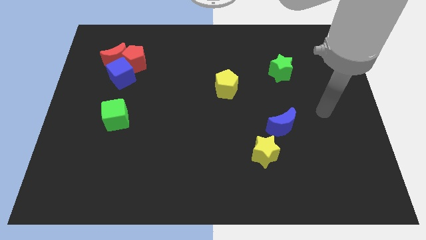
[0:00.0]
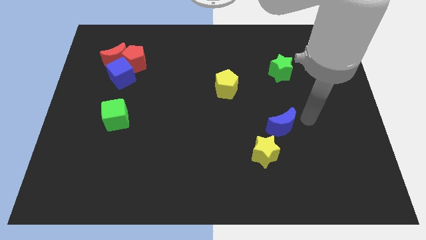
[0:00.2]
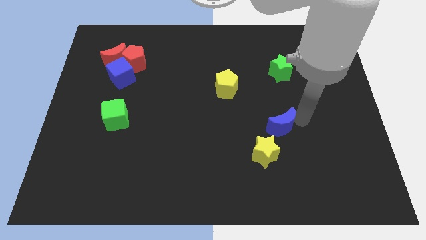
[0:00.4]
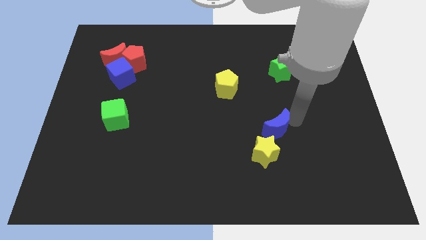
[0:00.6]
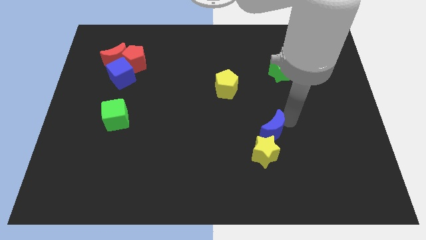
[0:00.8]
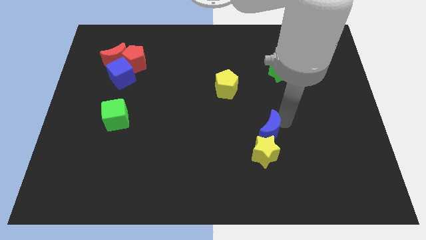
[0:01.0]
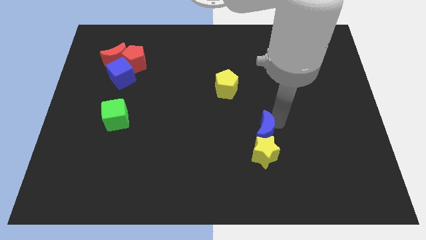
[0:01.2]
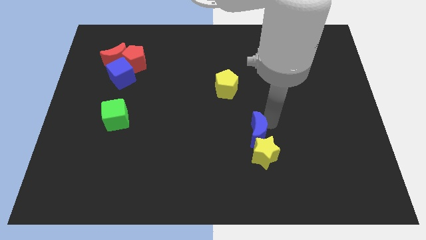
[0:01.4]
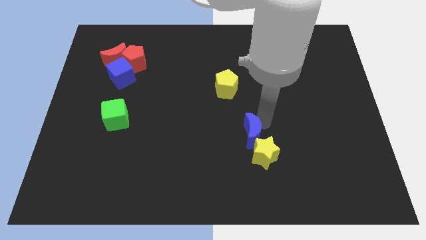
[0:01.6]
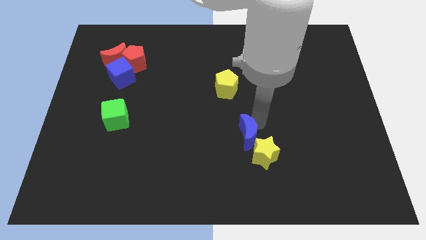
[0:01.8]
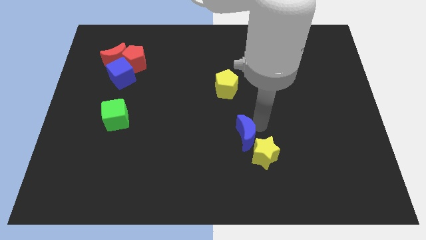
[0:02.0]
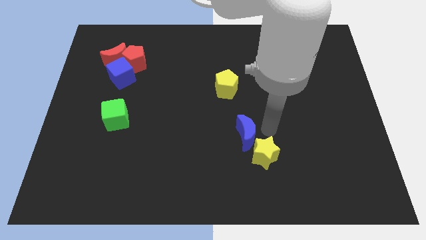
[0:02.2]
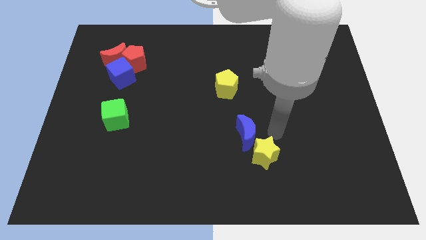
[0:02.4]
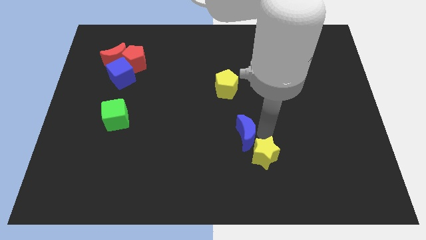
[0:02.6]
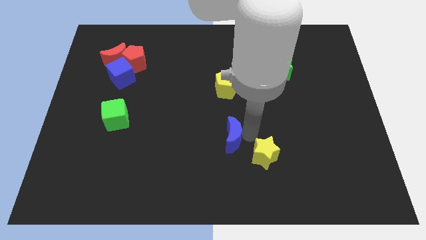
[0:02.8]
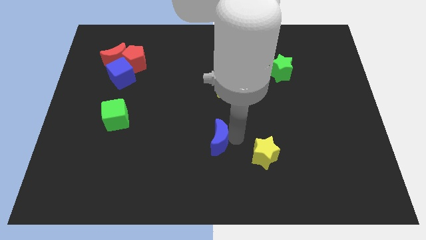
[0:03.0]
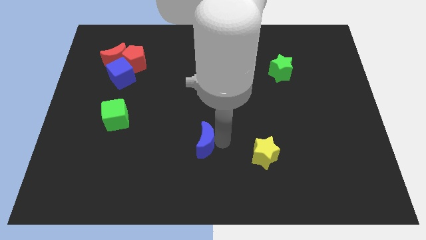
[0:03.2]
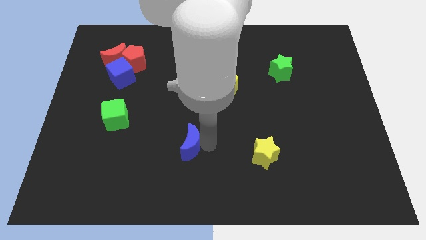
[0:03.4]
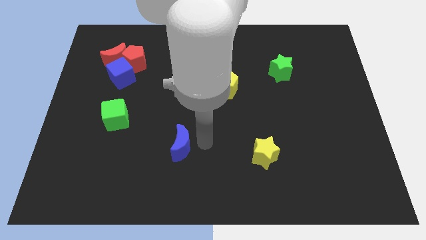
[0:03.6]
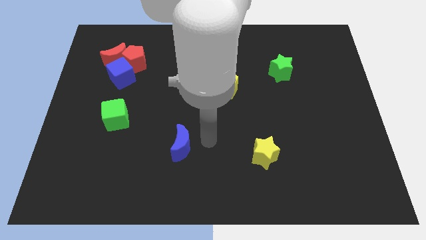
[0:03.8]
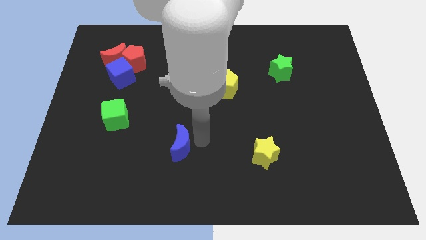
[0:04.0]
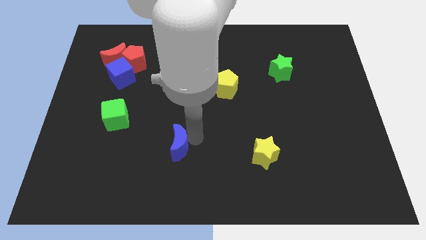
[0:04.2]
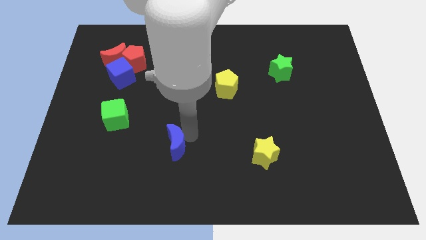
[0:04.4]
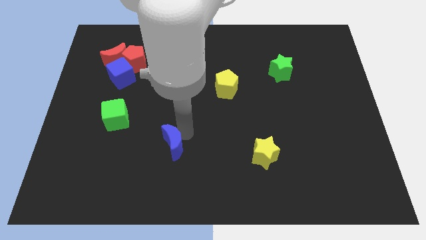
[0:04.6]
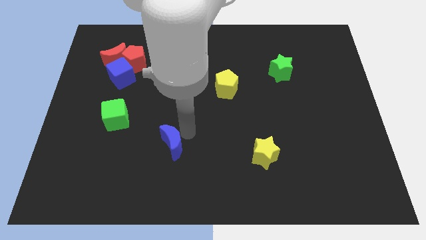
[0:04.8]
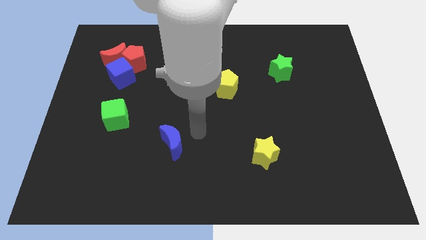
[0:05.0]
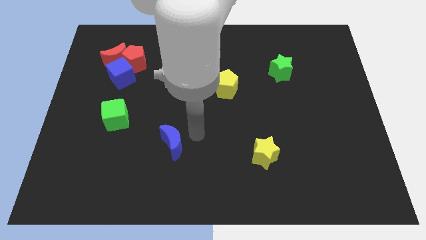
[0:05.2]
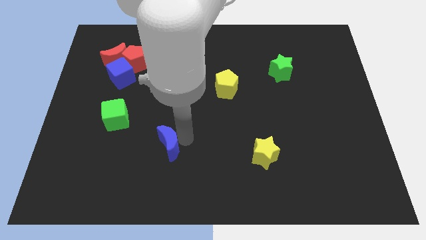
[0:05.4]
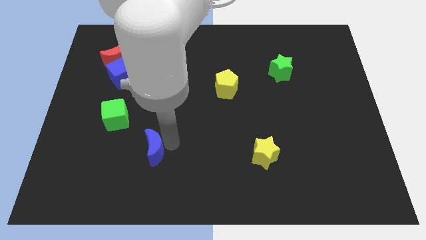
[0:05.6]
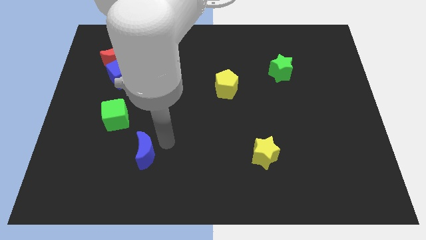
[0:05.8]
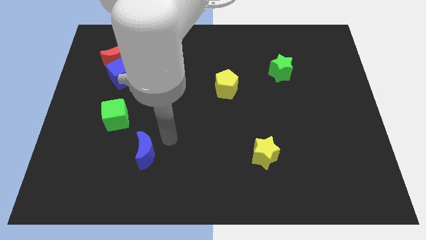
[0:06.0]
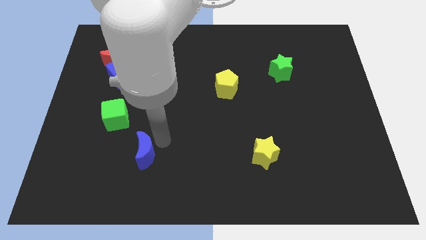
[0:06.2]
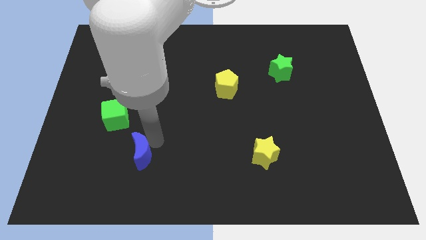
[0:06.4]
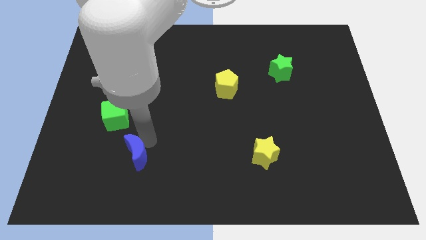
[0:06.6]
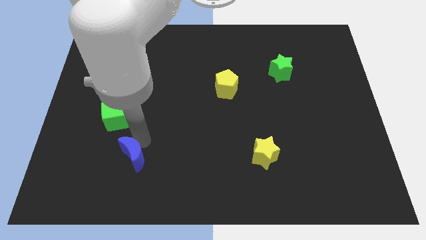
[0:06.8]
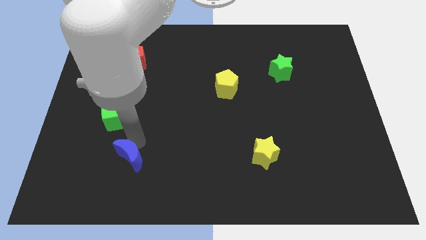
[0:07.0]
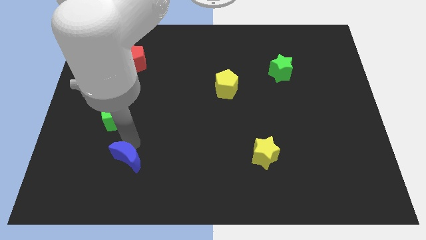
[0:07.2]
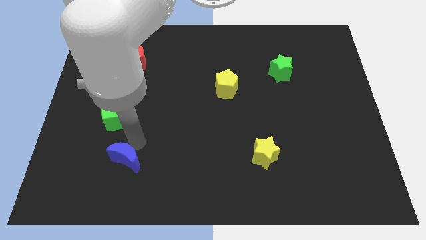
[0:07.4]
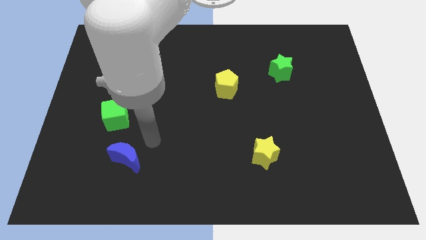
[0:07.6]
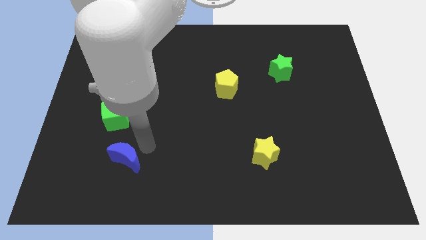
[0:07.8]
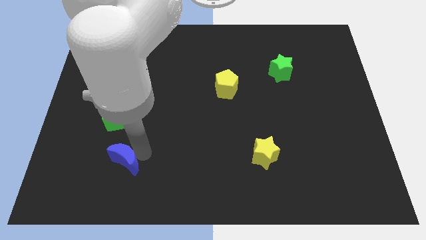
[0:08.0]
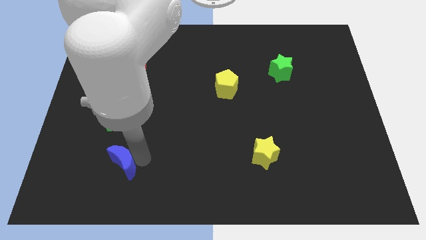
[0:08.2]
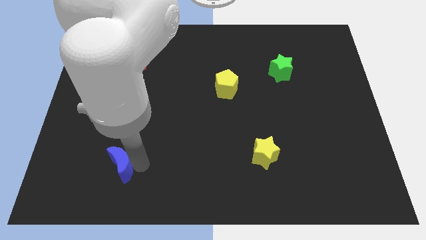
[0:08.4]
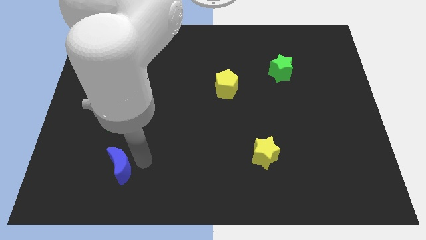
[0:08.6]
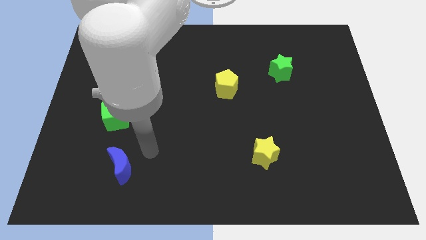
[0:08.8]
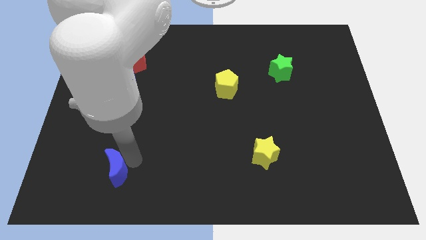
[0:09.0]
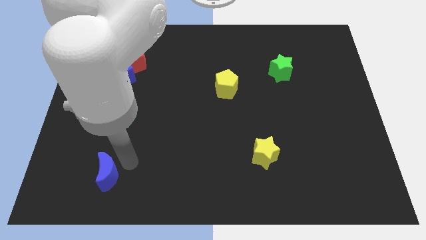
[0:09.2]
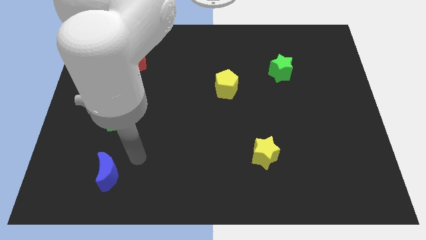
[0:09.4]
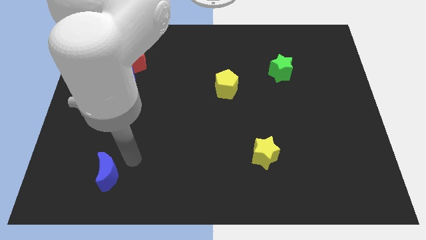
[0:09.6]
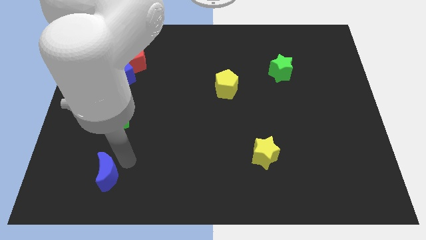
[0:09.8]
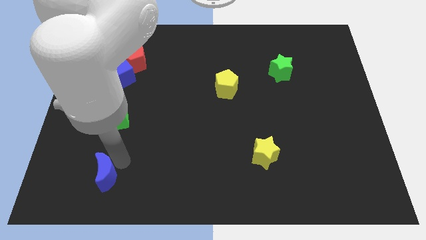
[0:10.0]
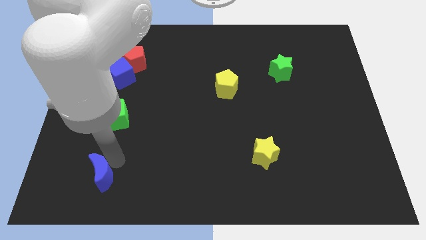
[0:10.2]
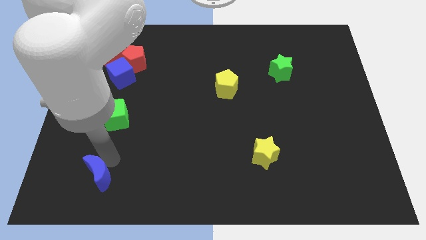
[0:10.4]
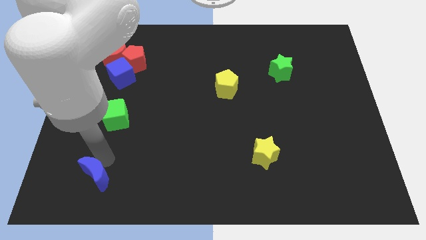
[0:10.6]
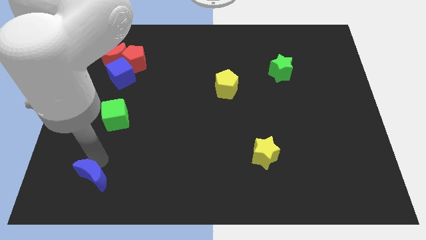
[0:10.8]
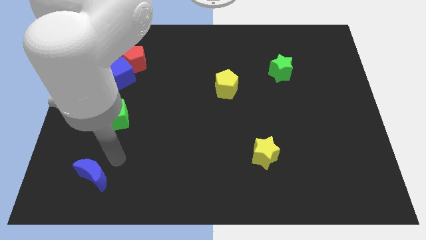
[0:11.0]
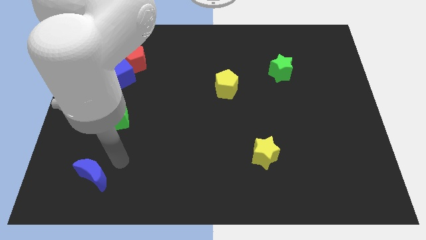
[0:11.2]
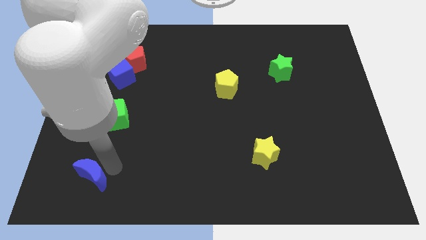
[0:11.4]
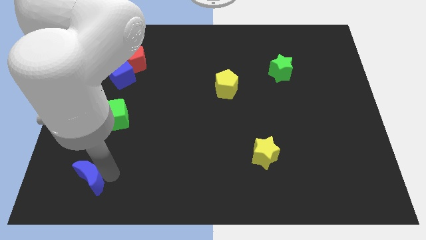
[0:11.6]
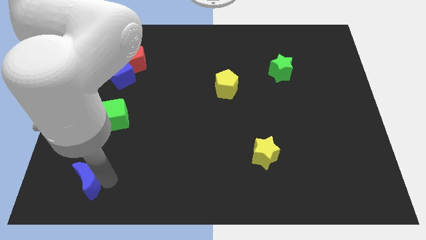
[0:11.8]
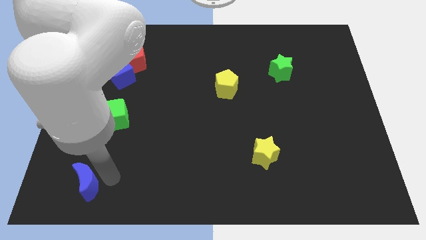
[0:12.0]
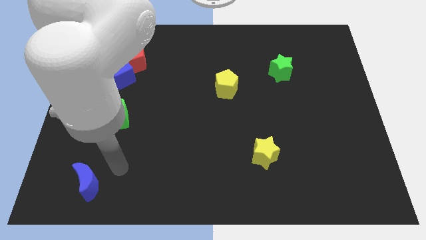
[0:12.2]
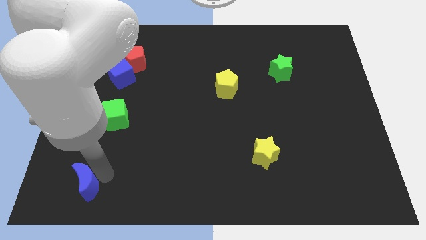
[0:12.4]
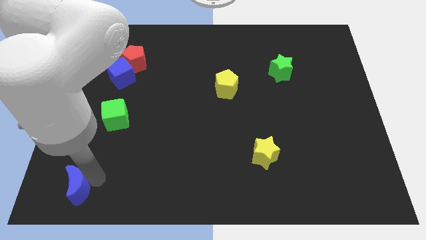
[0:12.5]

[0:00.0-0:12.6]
move the blue moon to the bottom left of the board
